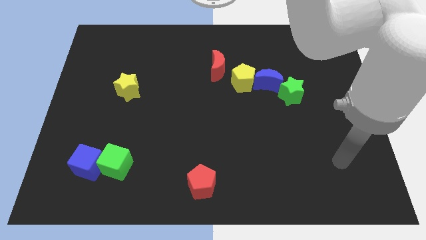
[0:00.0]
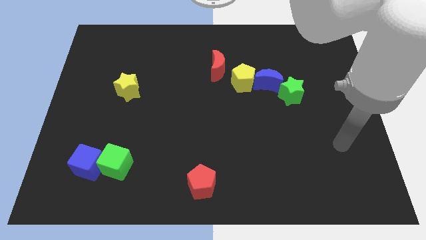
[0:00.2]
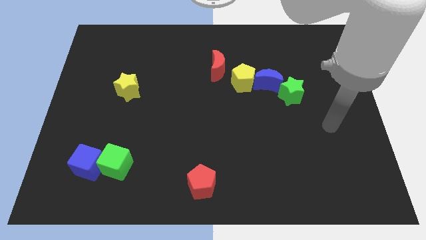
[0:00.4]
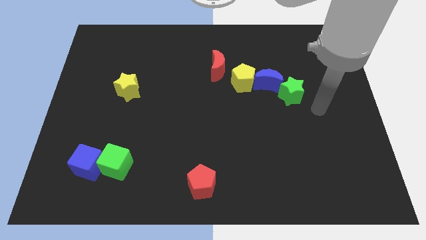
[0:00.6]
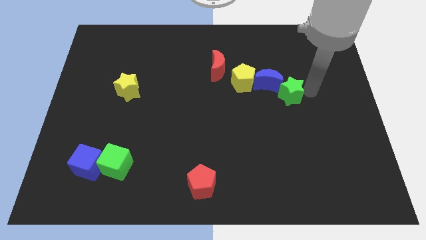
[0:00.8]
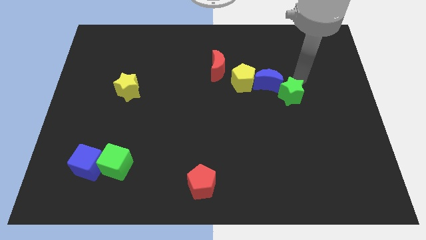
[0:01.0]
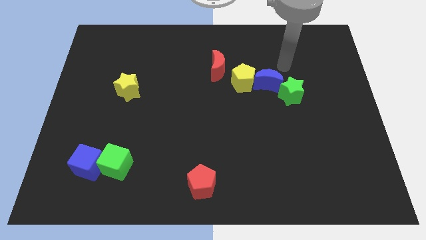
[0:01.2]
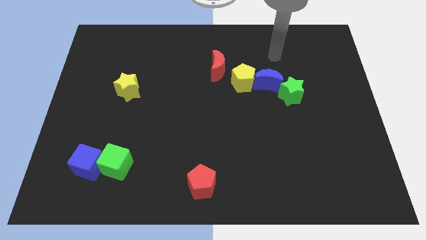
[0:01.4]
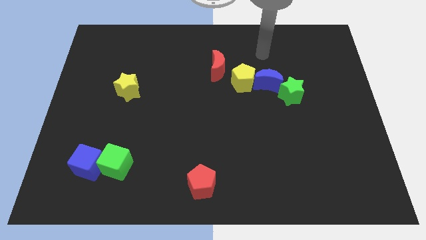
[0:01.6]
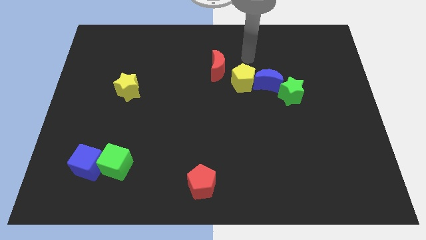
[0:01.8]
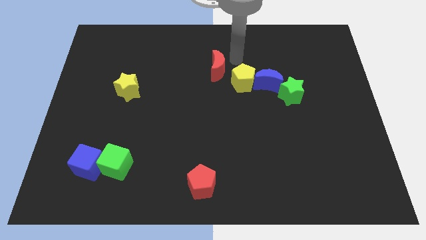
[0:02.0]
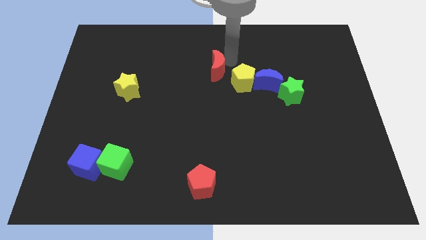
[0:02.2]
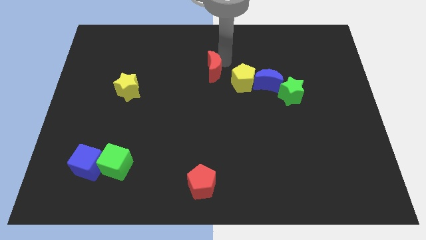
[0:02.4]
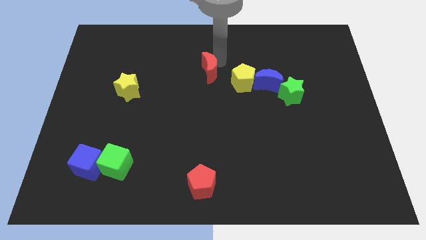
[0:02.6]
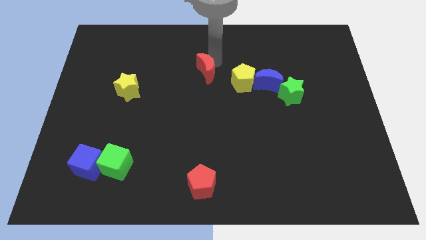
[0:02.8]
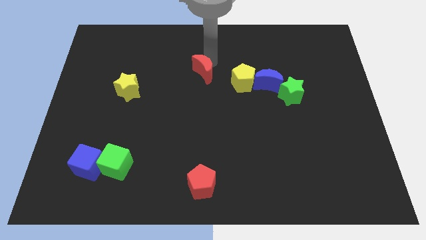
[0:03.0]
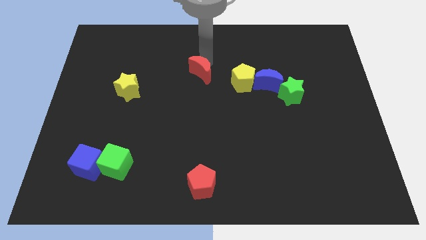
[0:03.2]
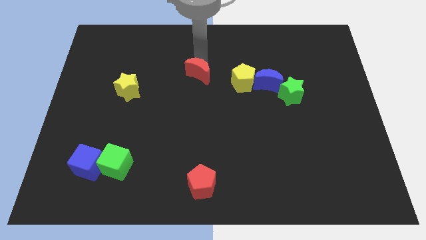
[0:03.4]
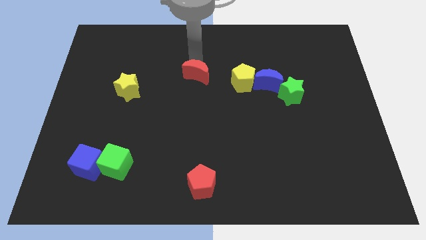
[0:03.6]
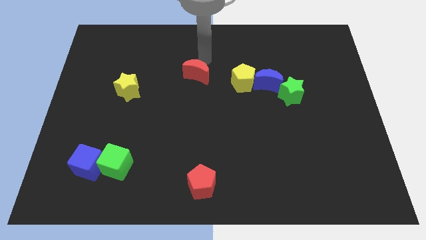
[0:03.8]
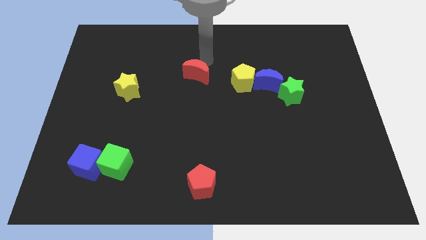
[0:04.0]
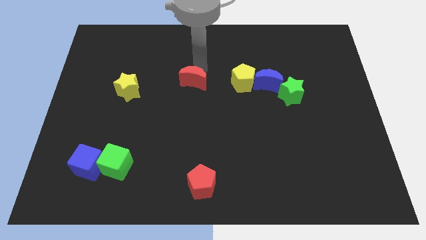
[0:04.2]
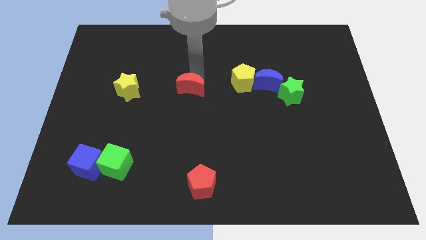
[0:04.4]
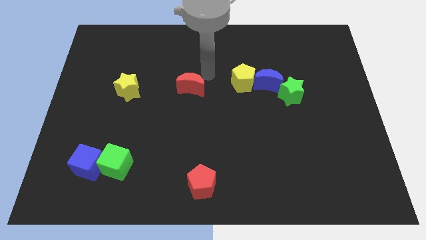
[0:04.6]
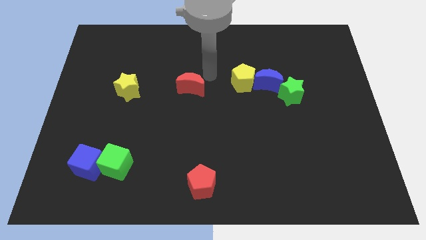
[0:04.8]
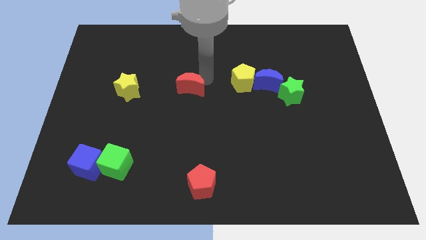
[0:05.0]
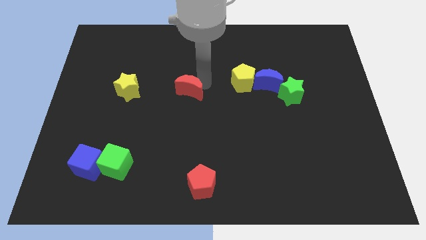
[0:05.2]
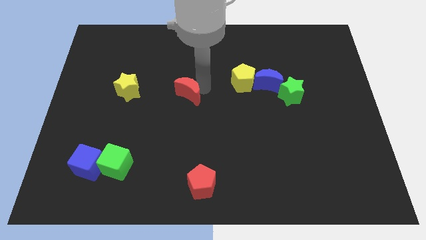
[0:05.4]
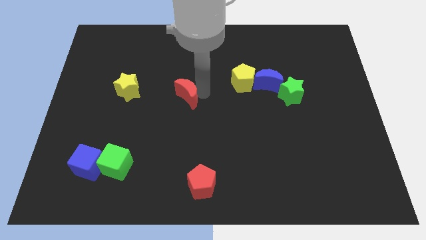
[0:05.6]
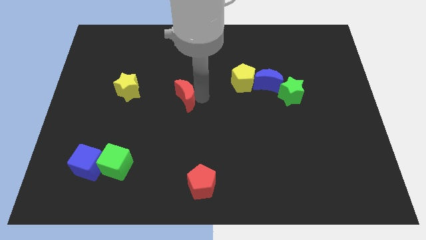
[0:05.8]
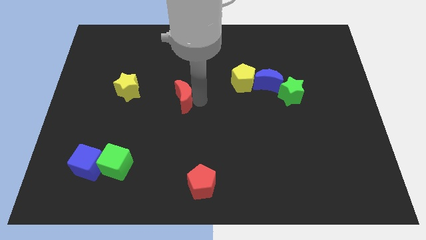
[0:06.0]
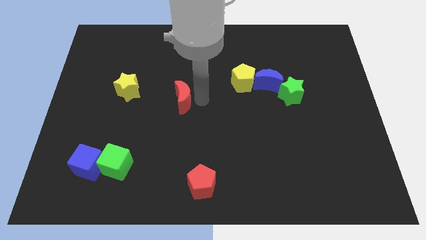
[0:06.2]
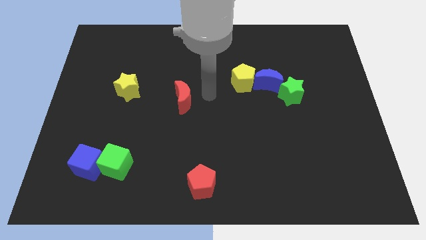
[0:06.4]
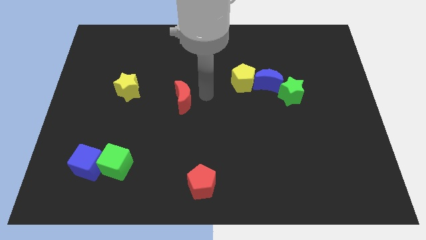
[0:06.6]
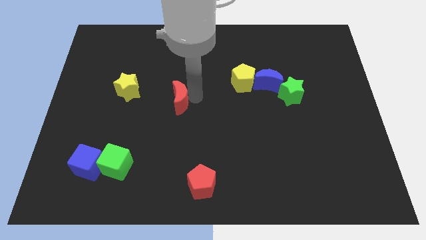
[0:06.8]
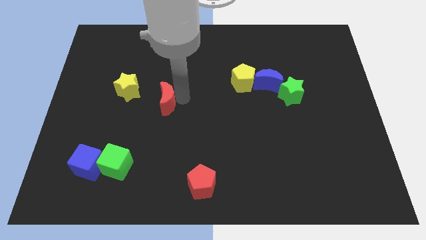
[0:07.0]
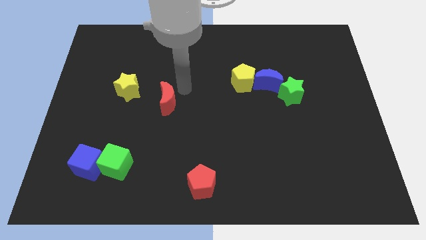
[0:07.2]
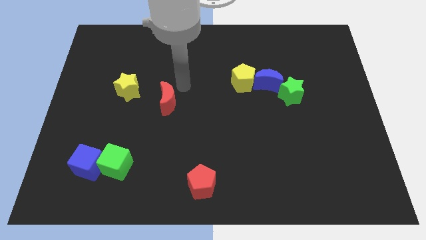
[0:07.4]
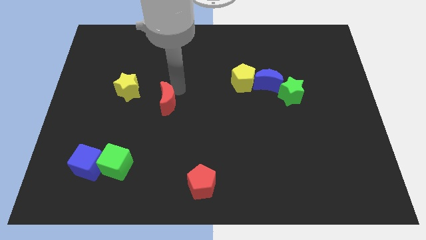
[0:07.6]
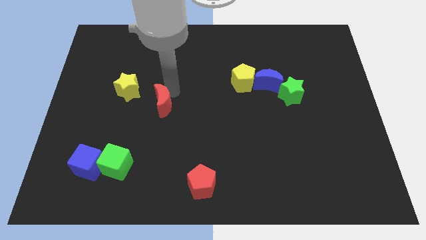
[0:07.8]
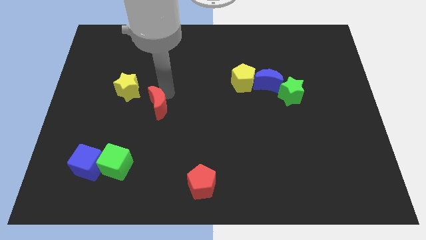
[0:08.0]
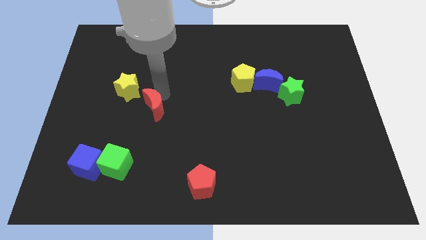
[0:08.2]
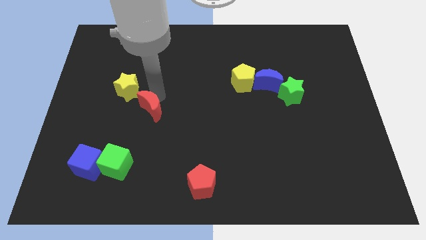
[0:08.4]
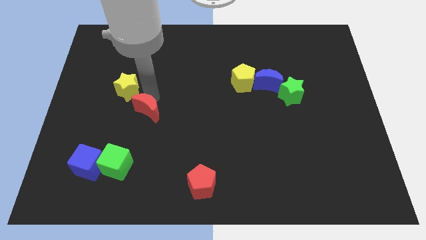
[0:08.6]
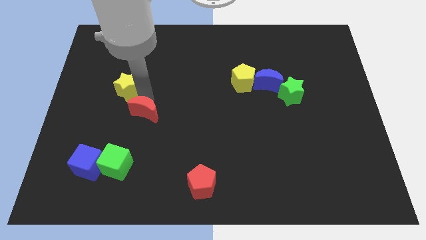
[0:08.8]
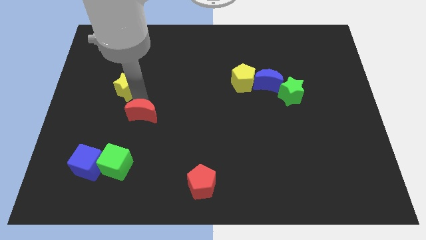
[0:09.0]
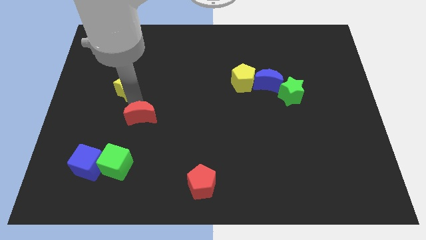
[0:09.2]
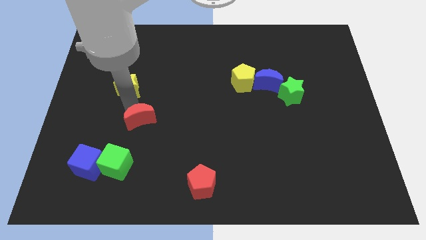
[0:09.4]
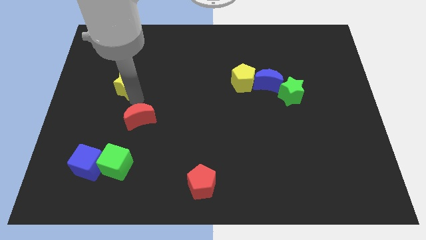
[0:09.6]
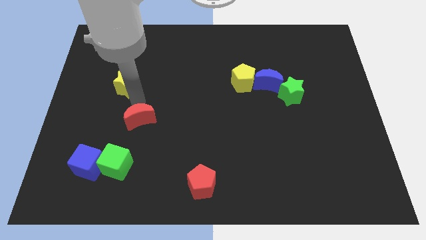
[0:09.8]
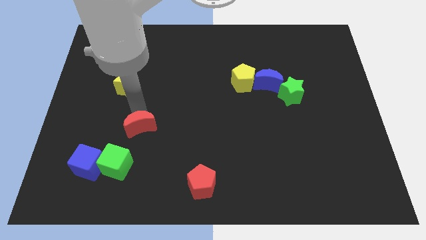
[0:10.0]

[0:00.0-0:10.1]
push the red moon to the top right side of the green cube

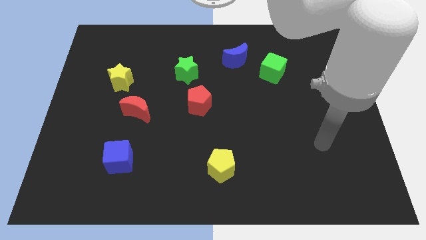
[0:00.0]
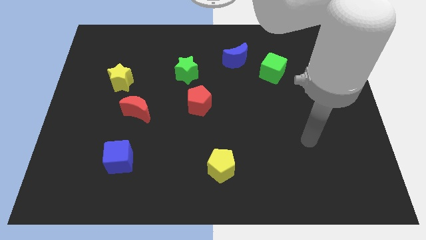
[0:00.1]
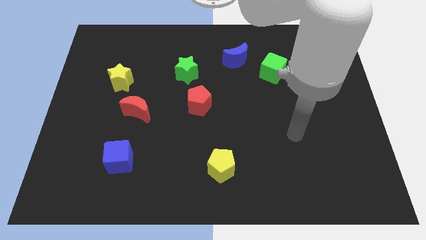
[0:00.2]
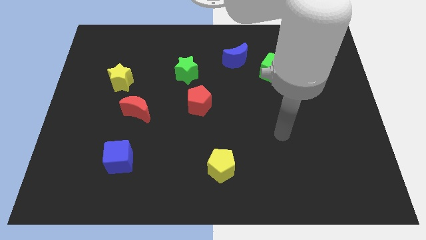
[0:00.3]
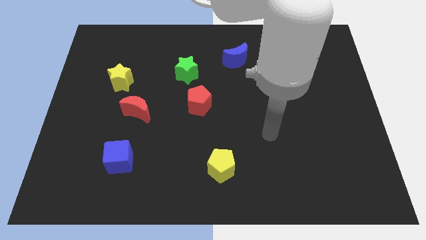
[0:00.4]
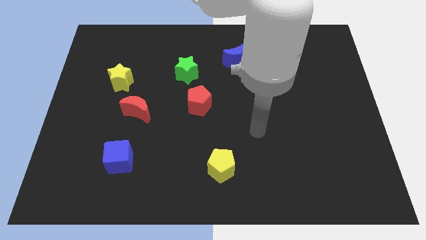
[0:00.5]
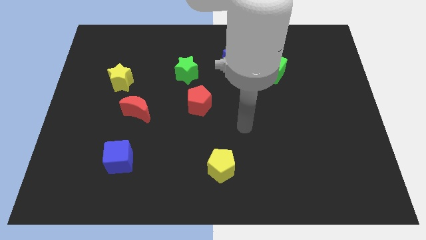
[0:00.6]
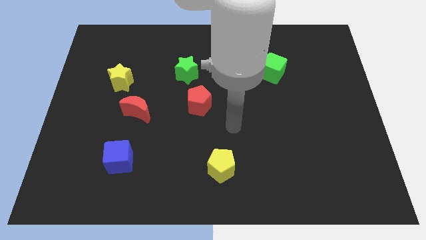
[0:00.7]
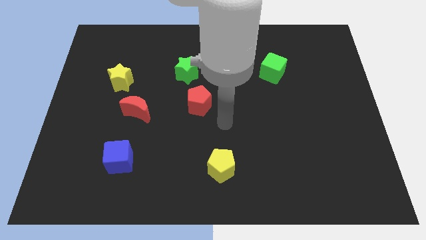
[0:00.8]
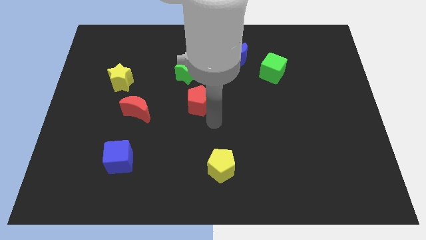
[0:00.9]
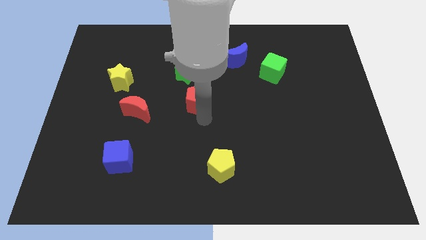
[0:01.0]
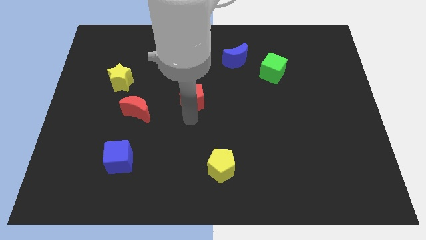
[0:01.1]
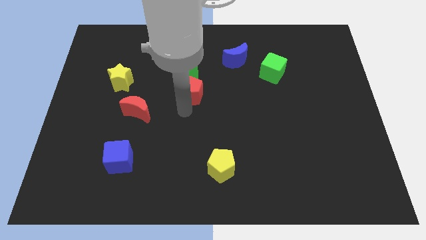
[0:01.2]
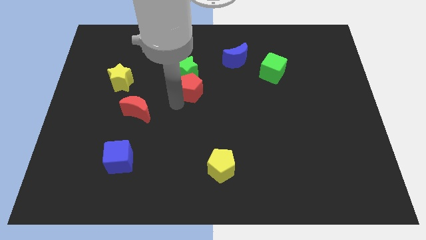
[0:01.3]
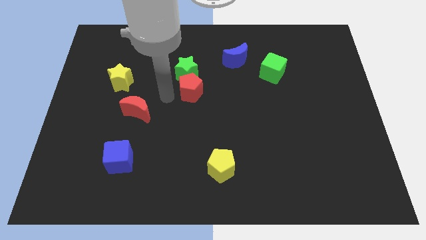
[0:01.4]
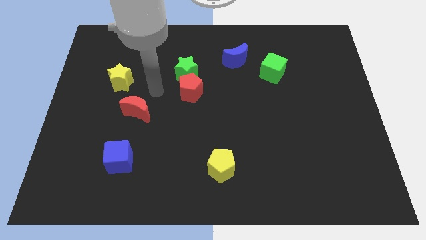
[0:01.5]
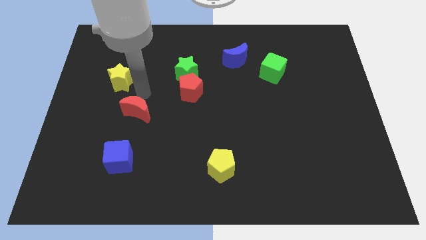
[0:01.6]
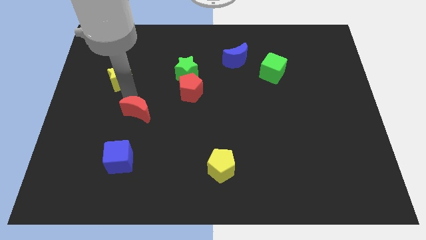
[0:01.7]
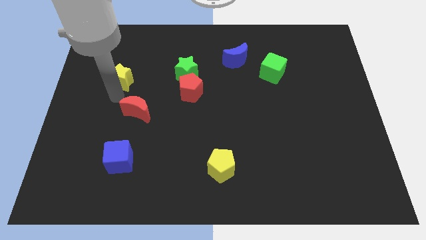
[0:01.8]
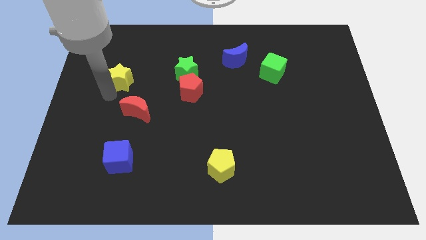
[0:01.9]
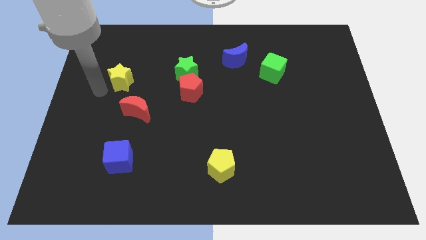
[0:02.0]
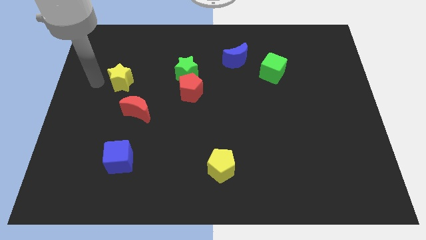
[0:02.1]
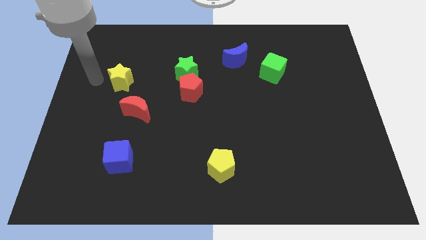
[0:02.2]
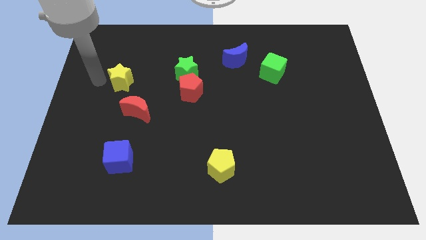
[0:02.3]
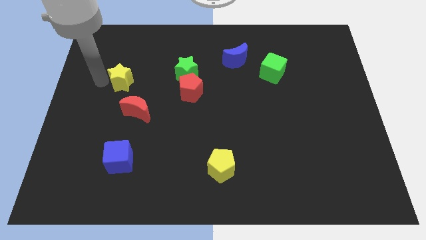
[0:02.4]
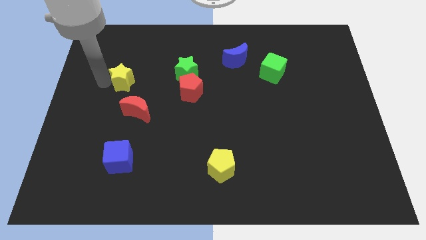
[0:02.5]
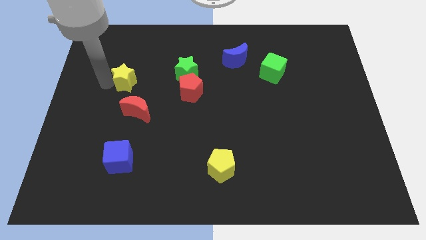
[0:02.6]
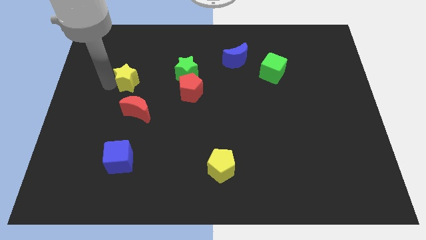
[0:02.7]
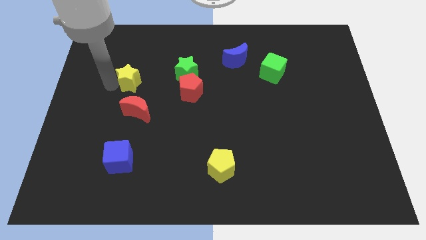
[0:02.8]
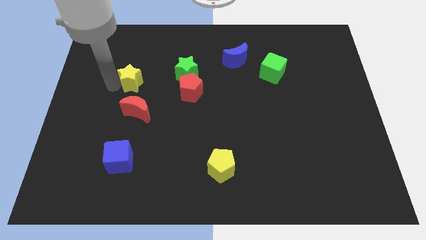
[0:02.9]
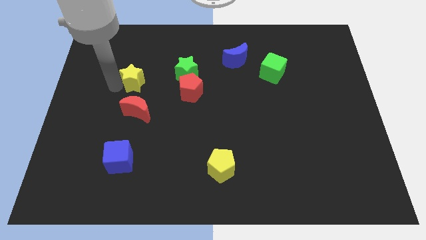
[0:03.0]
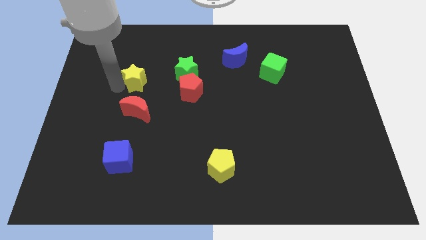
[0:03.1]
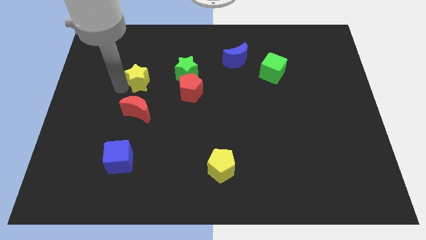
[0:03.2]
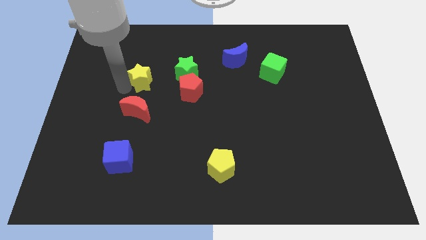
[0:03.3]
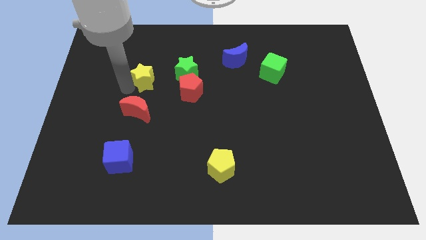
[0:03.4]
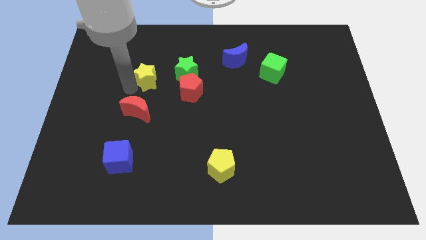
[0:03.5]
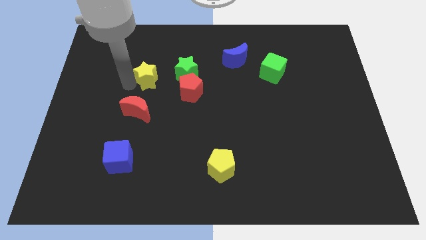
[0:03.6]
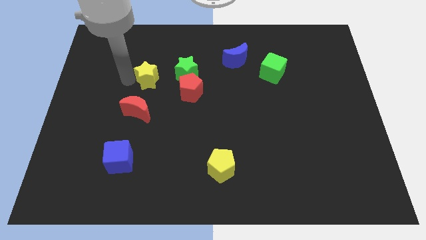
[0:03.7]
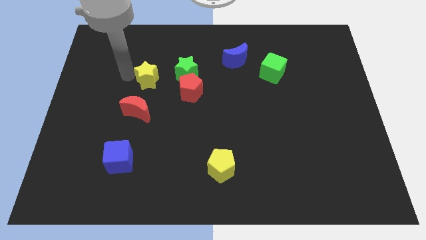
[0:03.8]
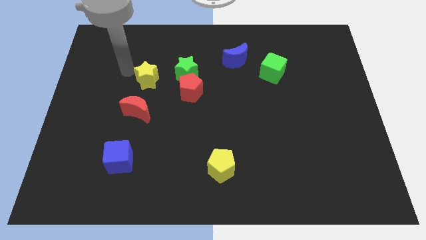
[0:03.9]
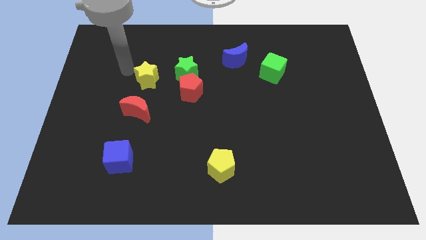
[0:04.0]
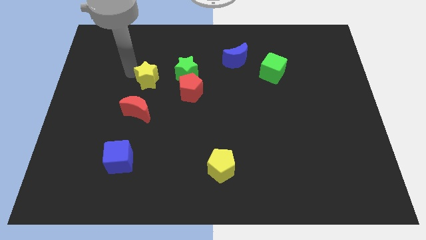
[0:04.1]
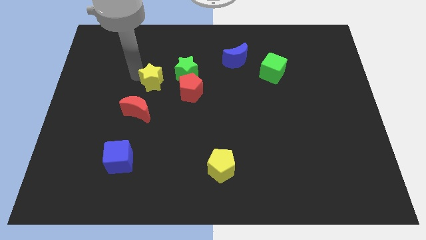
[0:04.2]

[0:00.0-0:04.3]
move the yellow star diagonally up and to the left of the red pentagon
